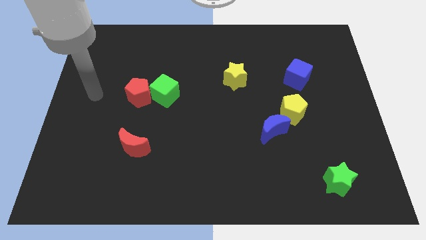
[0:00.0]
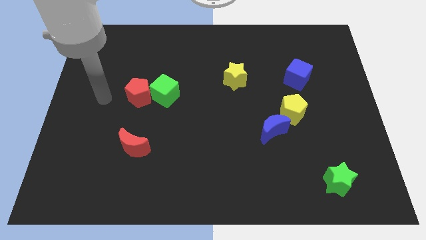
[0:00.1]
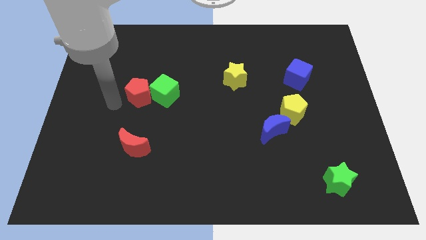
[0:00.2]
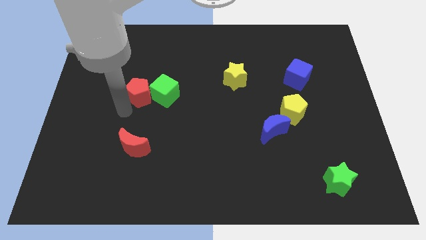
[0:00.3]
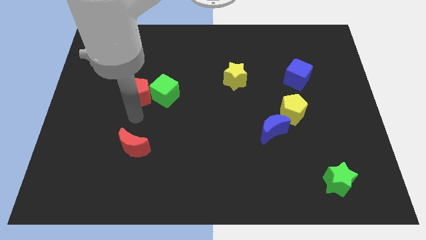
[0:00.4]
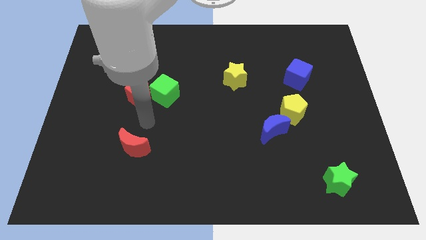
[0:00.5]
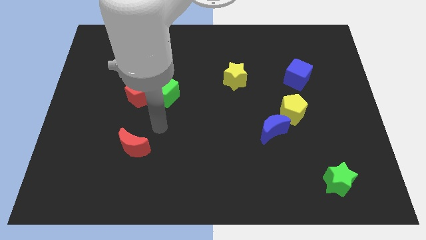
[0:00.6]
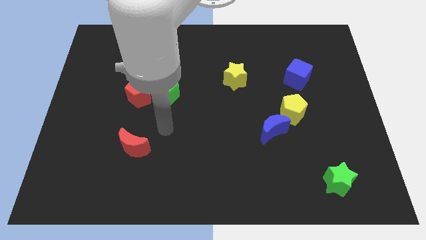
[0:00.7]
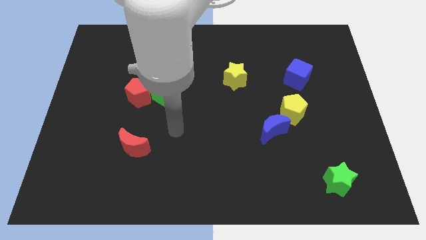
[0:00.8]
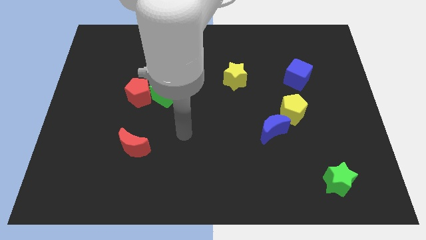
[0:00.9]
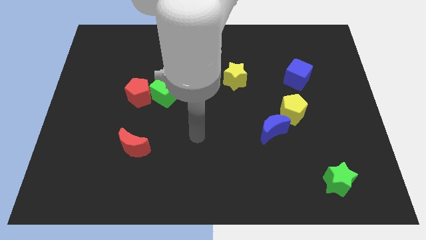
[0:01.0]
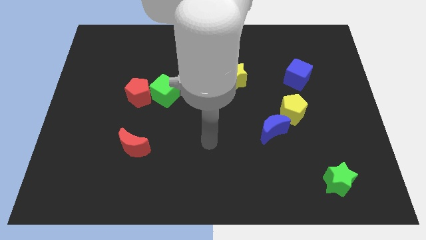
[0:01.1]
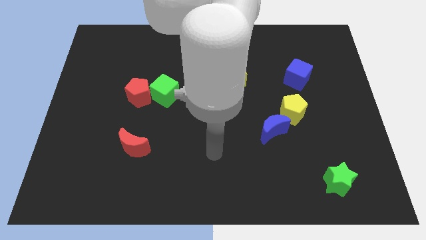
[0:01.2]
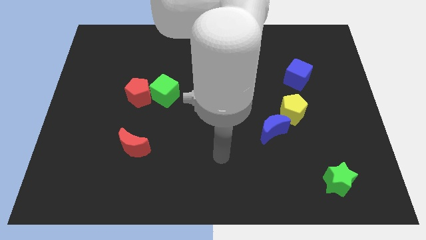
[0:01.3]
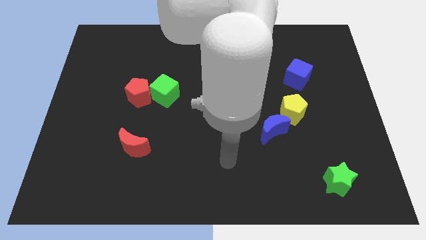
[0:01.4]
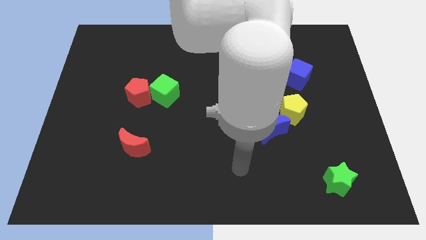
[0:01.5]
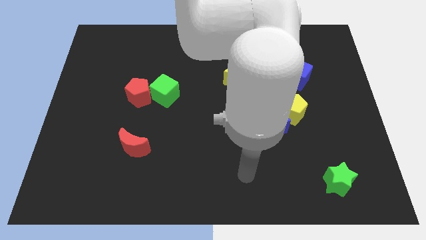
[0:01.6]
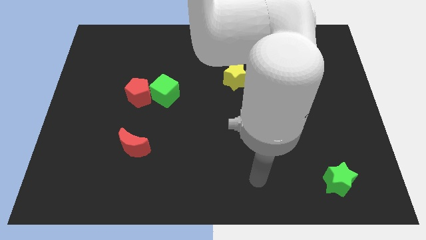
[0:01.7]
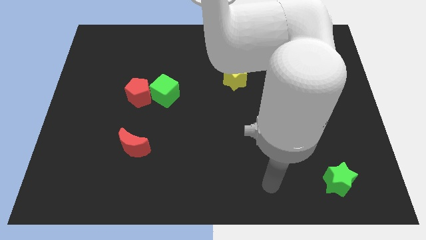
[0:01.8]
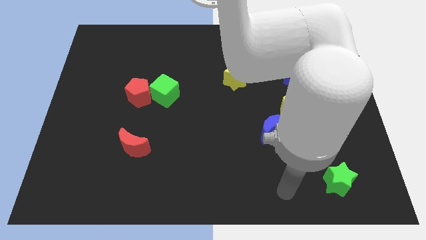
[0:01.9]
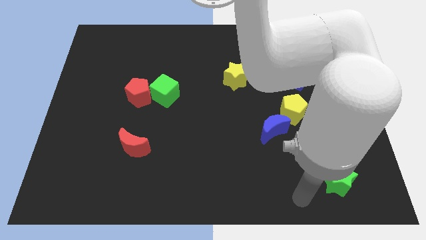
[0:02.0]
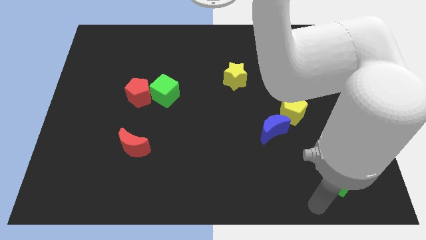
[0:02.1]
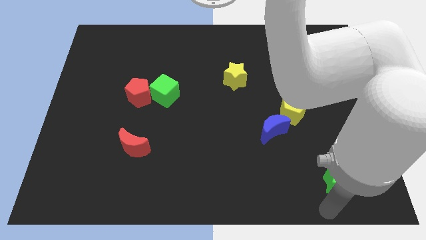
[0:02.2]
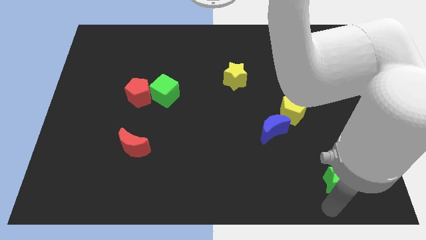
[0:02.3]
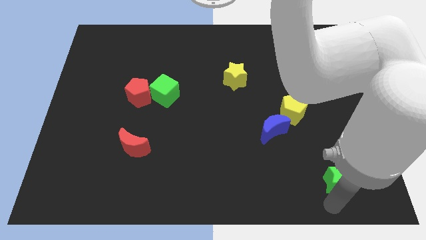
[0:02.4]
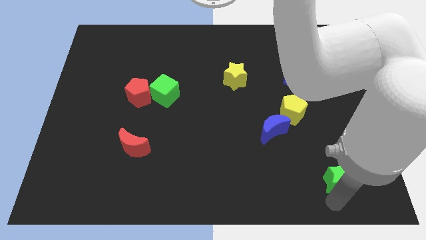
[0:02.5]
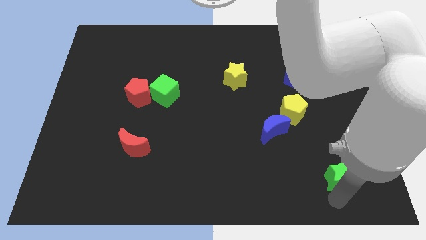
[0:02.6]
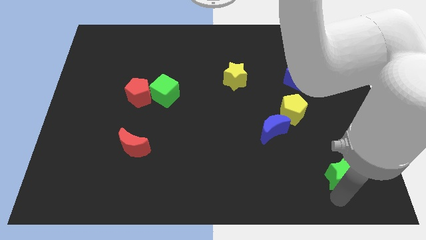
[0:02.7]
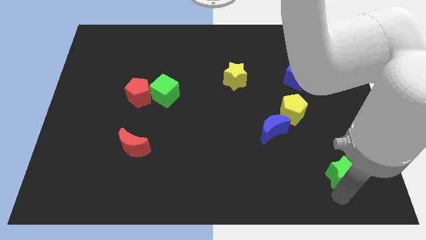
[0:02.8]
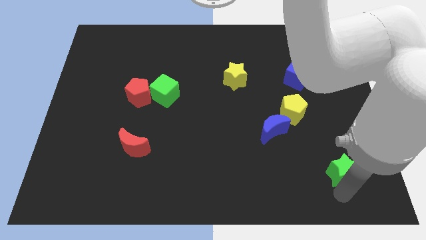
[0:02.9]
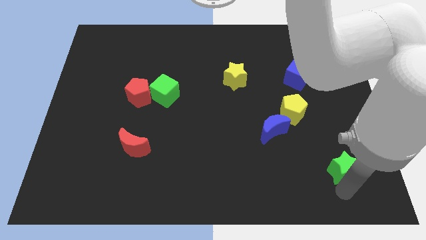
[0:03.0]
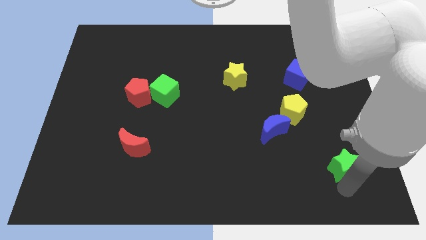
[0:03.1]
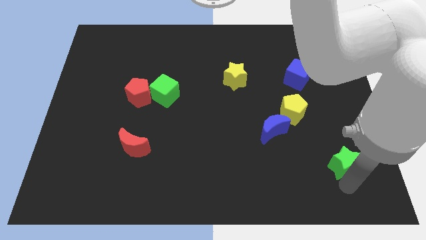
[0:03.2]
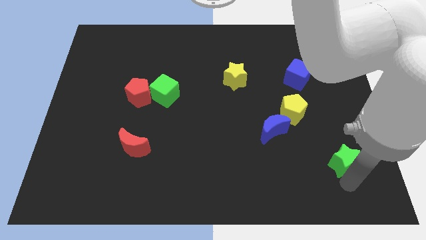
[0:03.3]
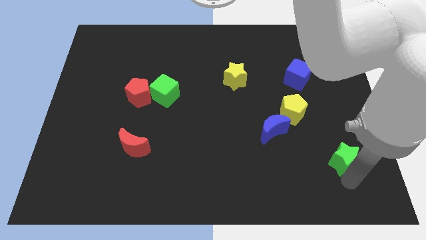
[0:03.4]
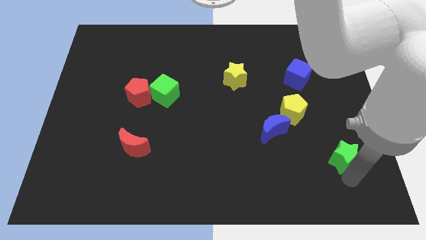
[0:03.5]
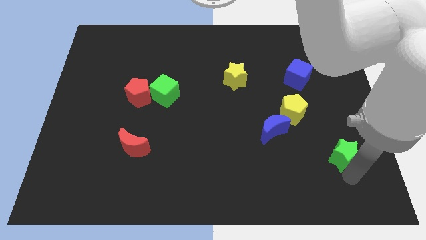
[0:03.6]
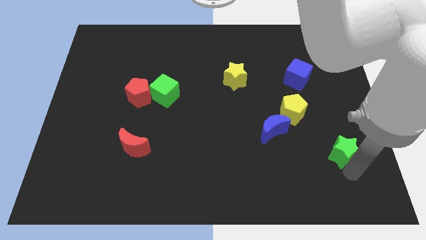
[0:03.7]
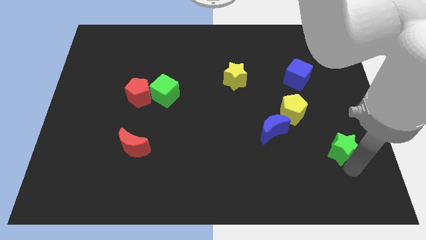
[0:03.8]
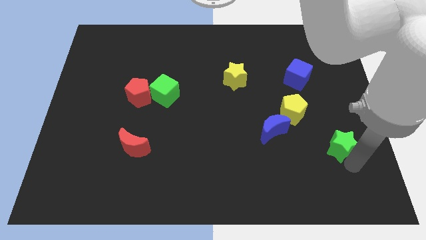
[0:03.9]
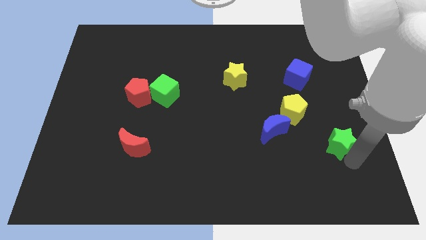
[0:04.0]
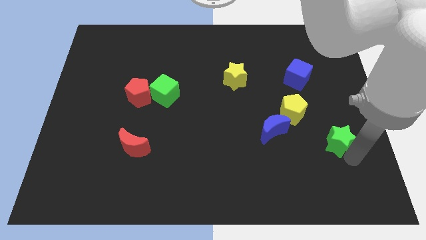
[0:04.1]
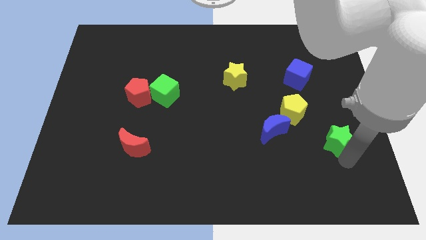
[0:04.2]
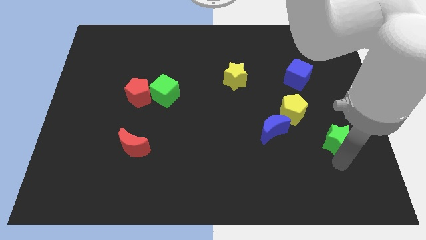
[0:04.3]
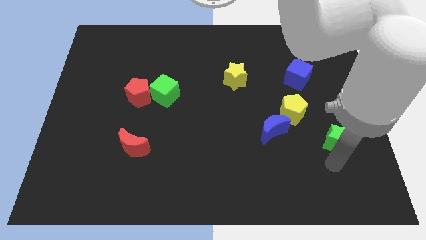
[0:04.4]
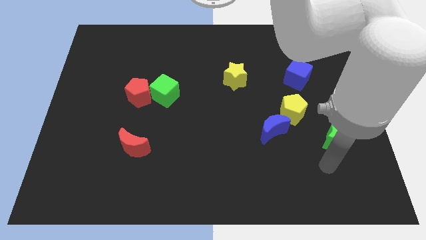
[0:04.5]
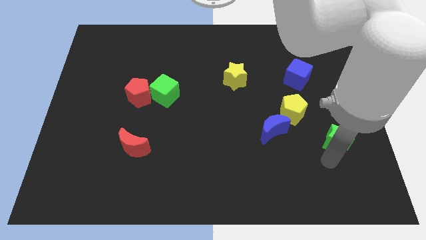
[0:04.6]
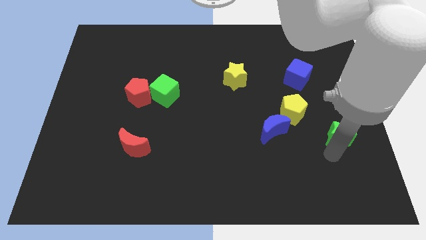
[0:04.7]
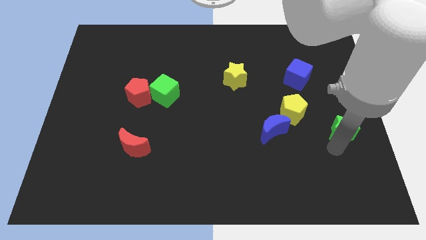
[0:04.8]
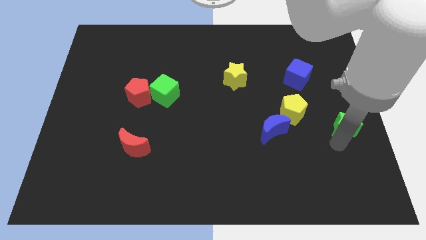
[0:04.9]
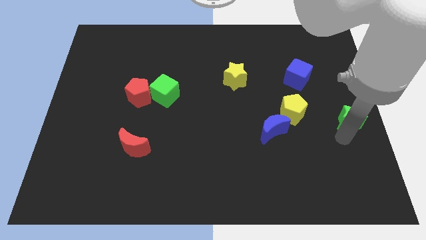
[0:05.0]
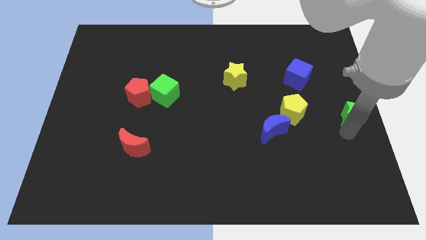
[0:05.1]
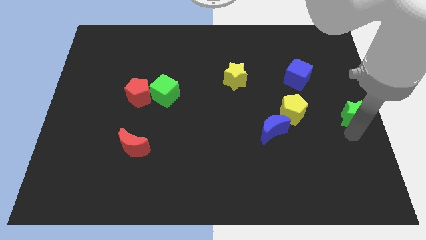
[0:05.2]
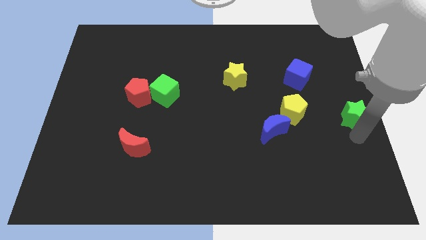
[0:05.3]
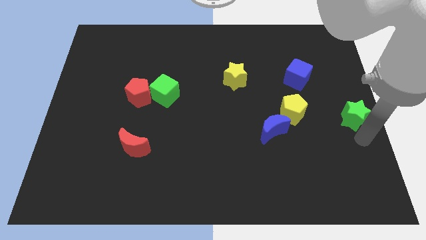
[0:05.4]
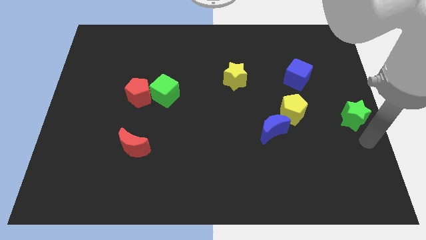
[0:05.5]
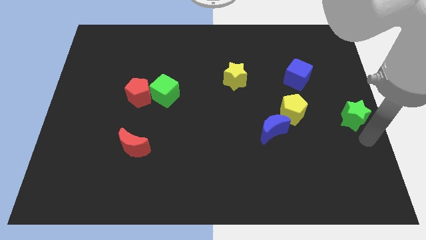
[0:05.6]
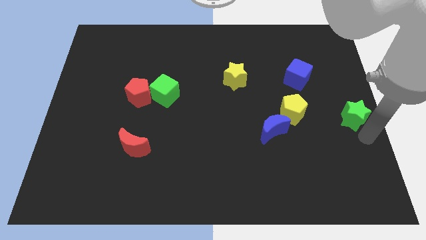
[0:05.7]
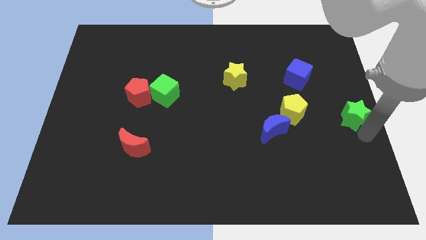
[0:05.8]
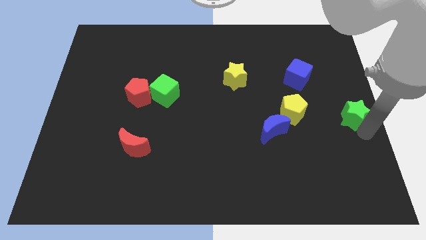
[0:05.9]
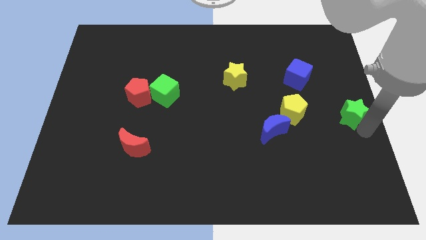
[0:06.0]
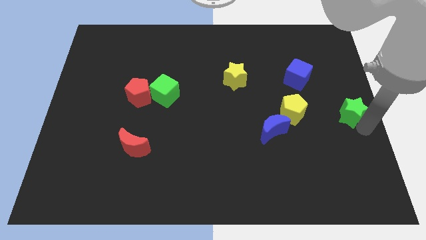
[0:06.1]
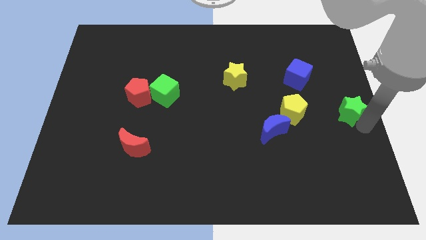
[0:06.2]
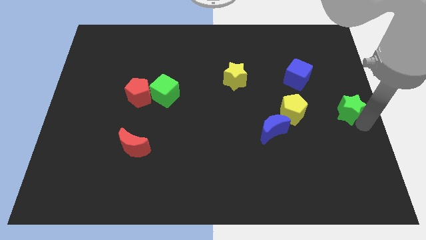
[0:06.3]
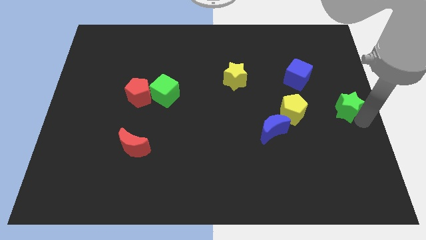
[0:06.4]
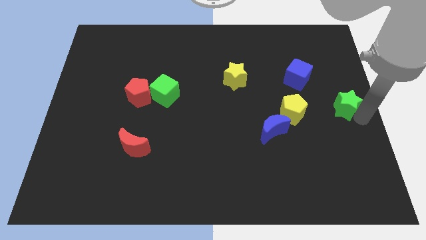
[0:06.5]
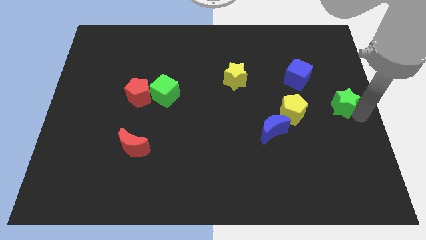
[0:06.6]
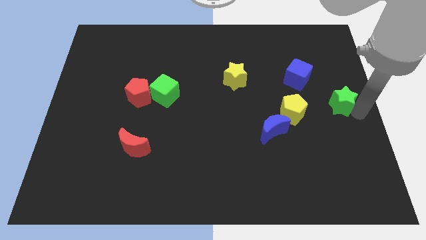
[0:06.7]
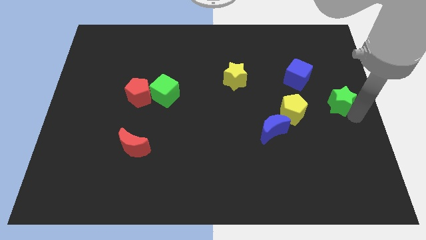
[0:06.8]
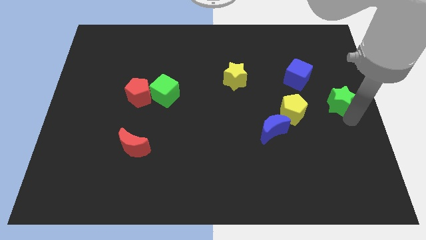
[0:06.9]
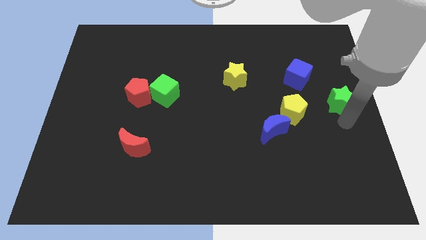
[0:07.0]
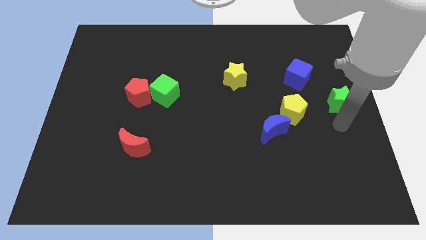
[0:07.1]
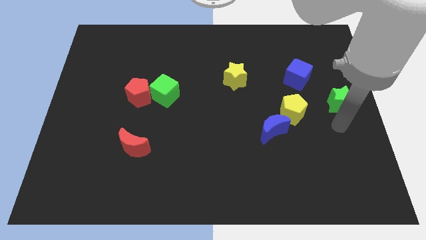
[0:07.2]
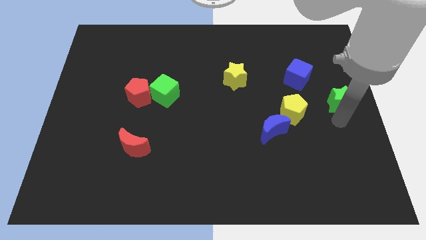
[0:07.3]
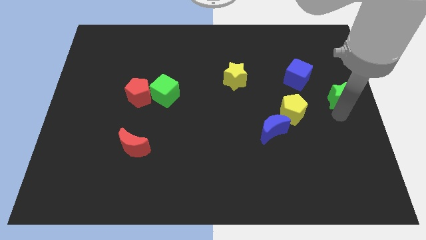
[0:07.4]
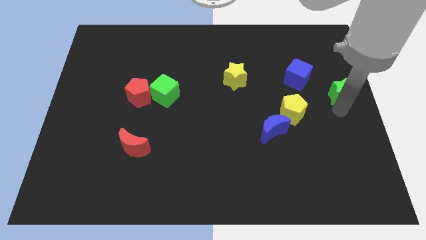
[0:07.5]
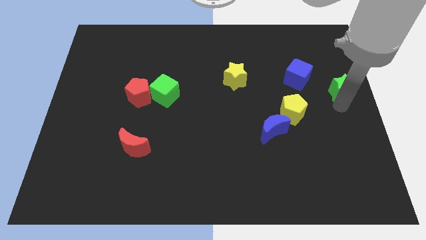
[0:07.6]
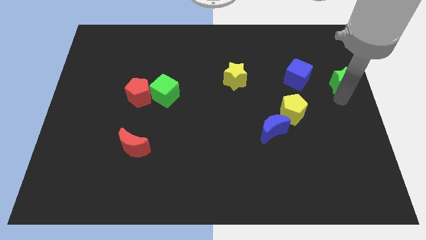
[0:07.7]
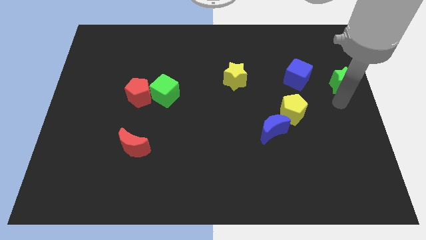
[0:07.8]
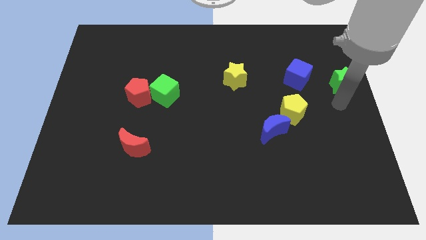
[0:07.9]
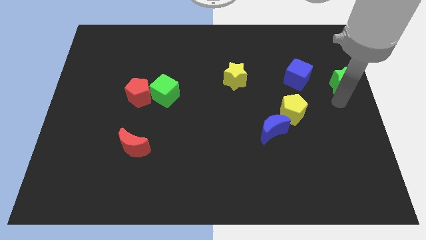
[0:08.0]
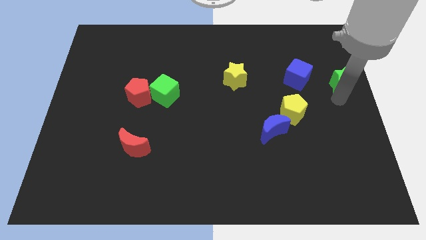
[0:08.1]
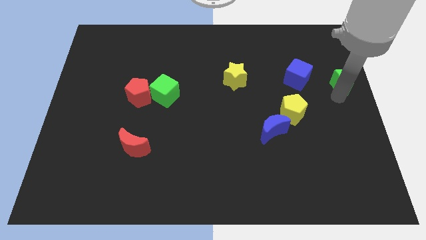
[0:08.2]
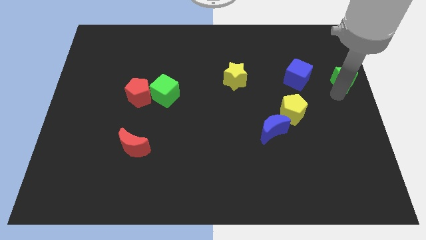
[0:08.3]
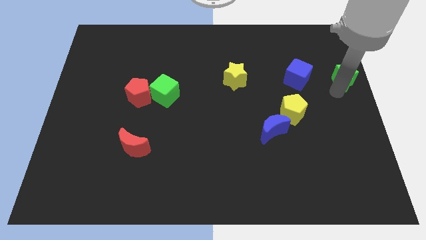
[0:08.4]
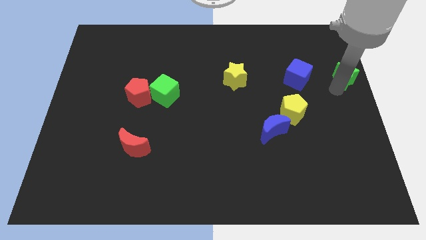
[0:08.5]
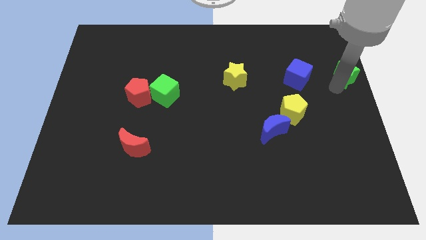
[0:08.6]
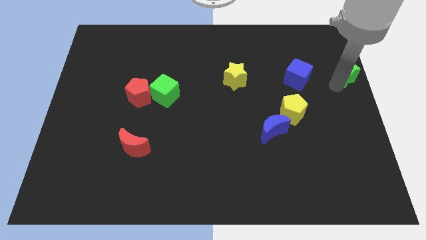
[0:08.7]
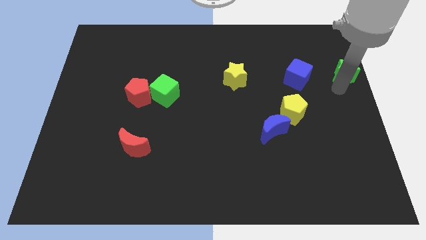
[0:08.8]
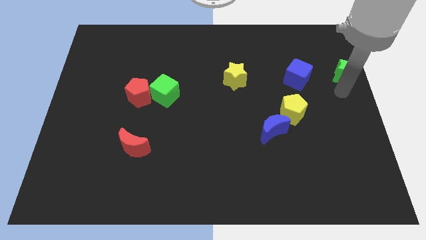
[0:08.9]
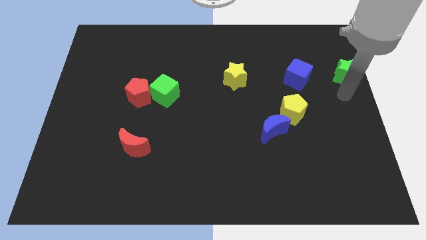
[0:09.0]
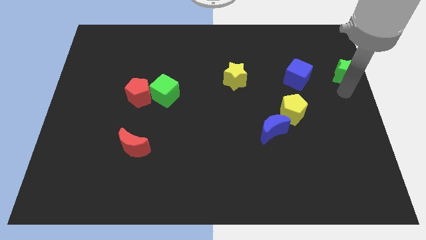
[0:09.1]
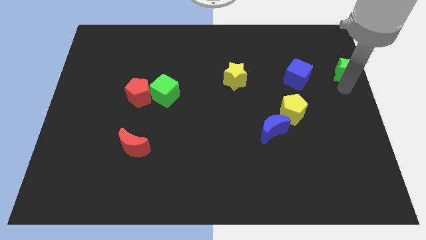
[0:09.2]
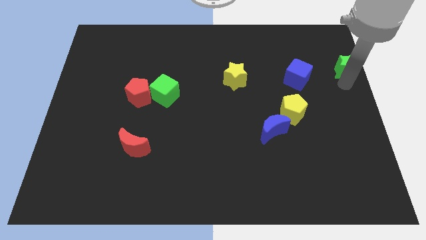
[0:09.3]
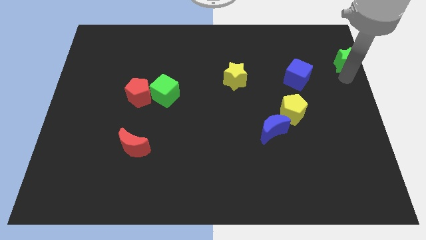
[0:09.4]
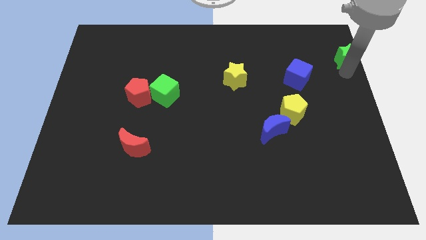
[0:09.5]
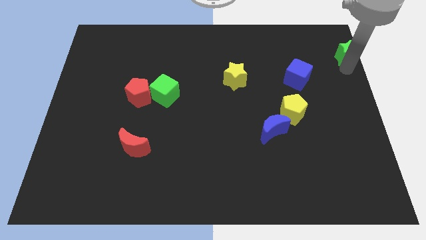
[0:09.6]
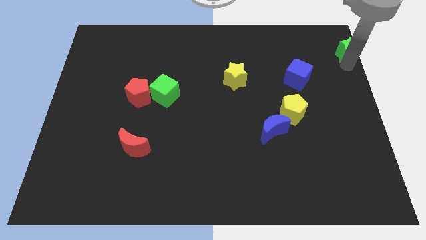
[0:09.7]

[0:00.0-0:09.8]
push the green star to the top right of the board
